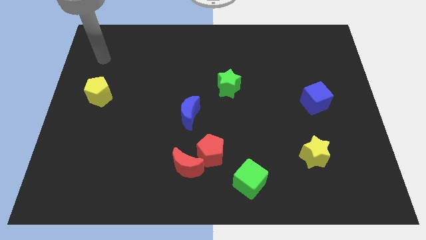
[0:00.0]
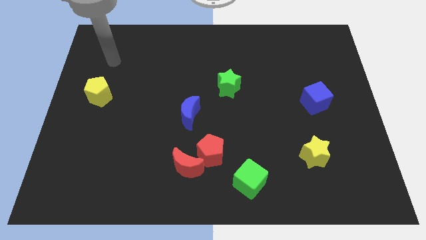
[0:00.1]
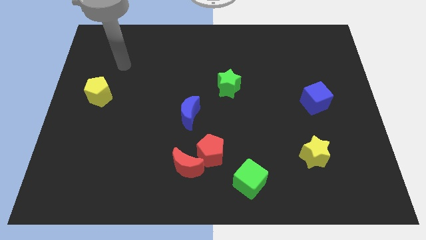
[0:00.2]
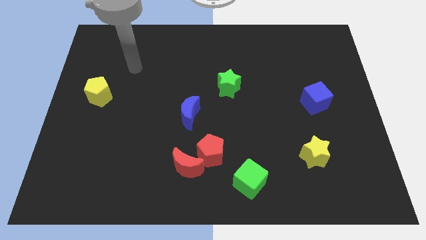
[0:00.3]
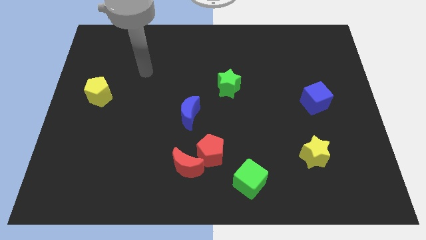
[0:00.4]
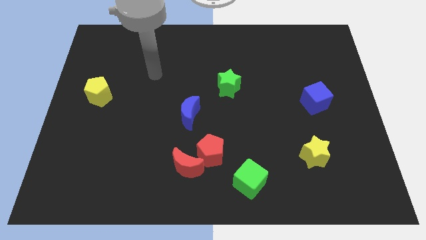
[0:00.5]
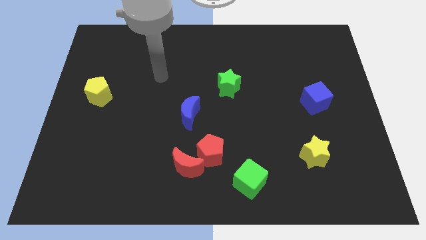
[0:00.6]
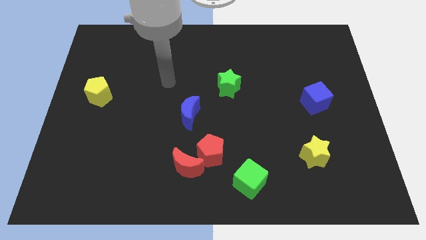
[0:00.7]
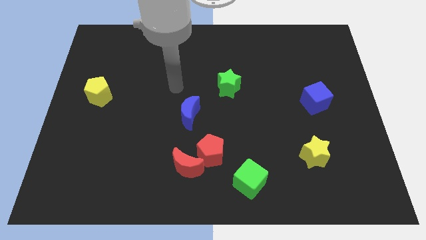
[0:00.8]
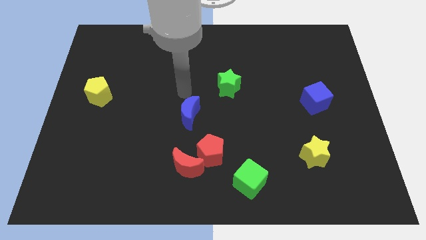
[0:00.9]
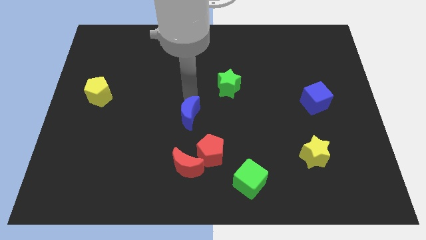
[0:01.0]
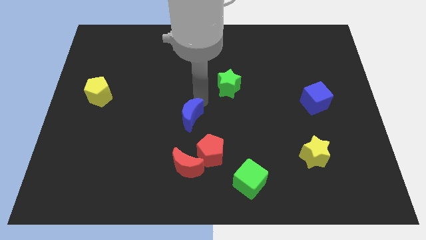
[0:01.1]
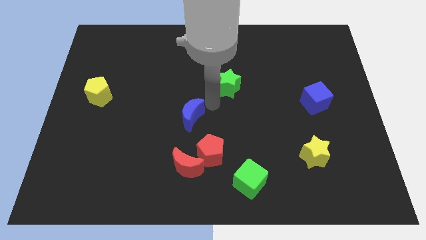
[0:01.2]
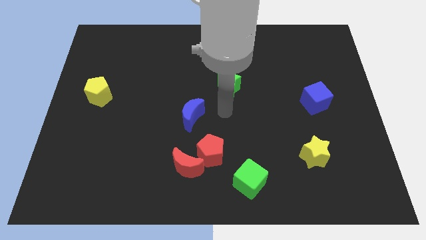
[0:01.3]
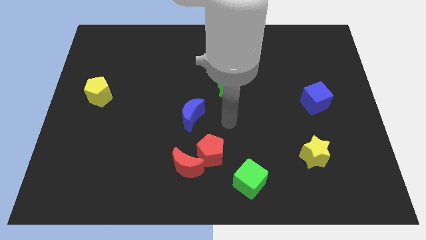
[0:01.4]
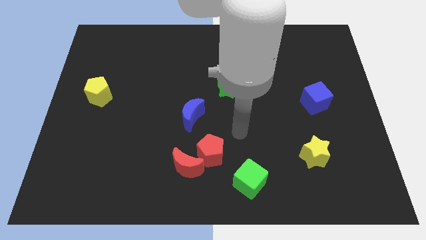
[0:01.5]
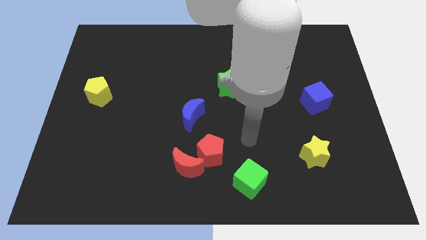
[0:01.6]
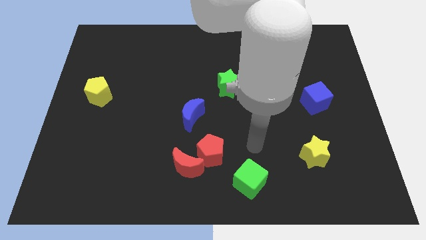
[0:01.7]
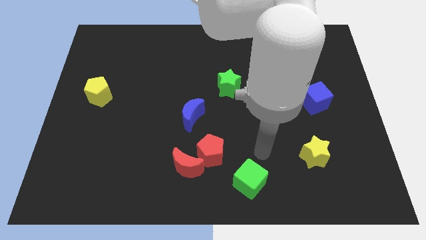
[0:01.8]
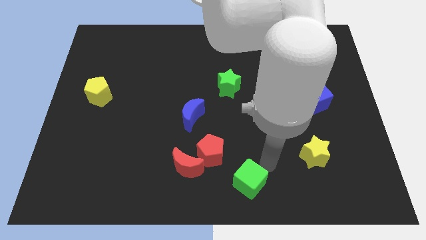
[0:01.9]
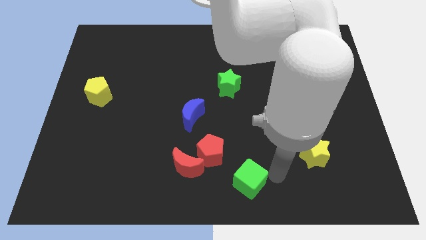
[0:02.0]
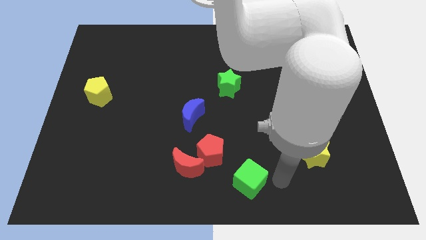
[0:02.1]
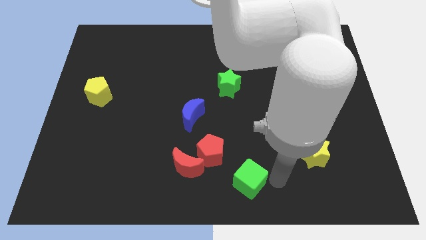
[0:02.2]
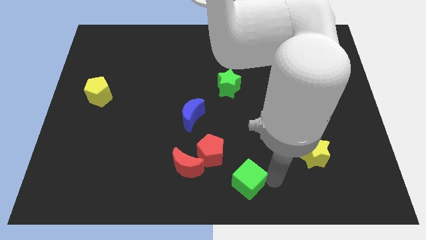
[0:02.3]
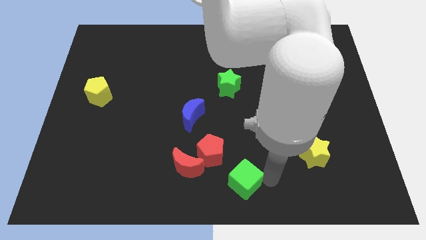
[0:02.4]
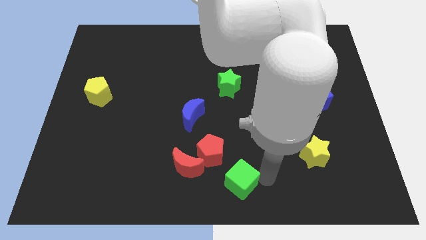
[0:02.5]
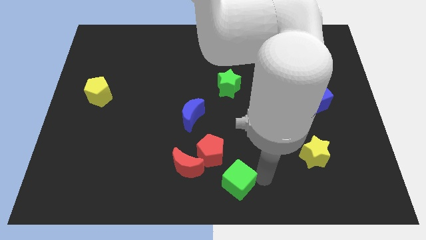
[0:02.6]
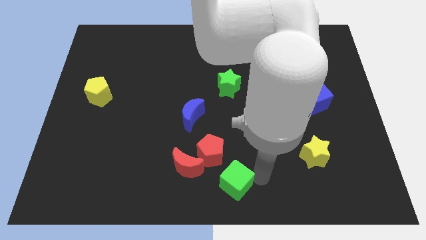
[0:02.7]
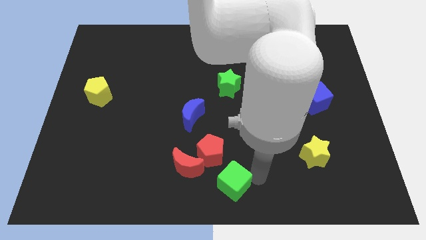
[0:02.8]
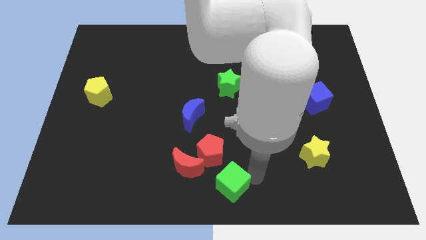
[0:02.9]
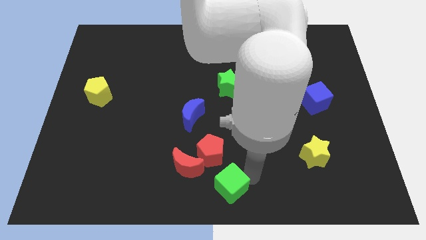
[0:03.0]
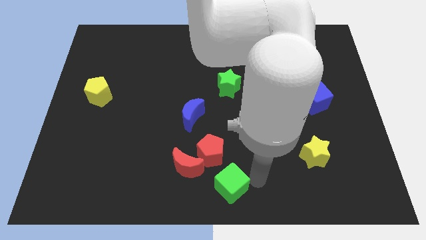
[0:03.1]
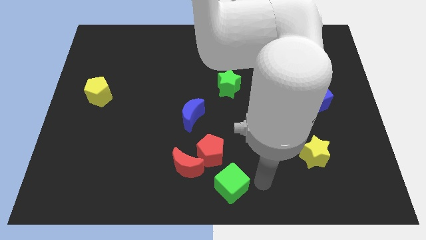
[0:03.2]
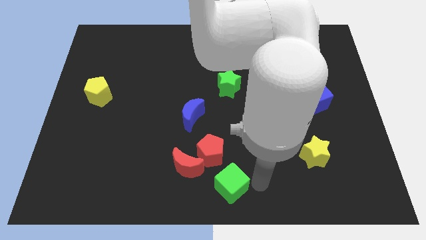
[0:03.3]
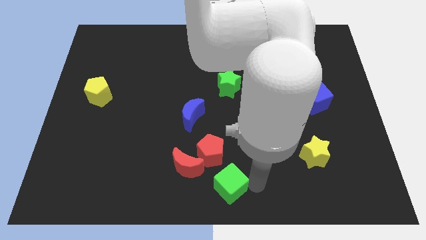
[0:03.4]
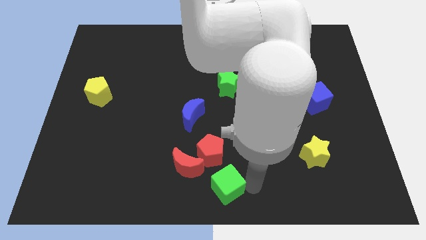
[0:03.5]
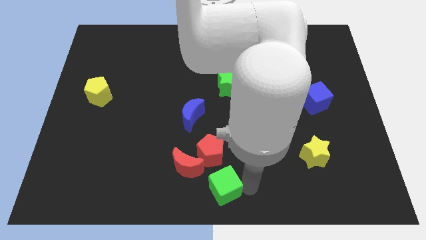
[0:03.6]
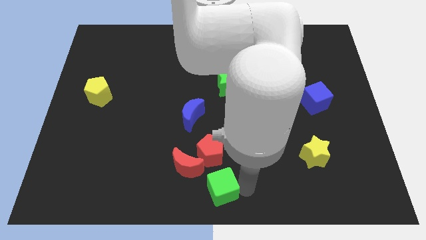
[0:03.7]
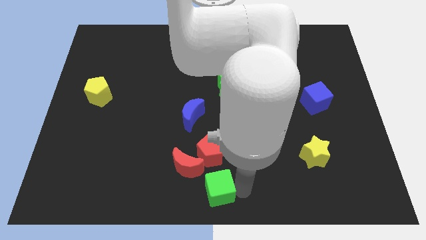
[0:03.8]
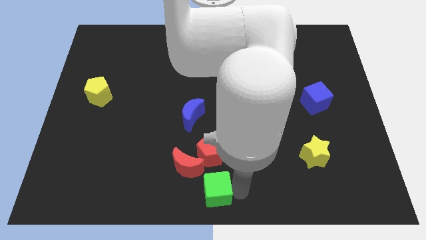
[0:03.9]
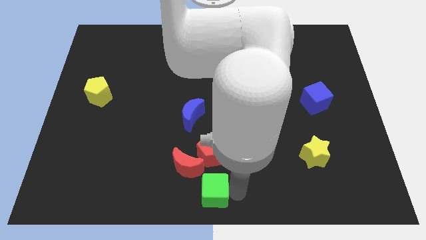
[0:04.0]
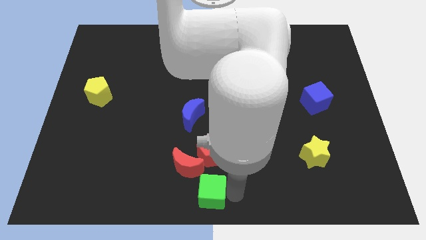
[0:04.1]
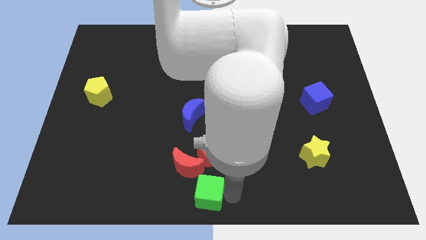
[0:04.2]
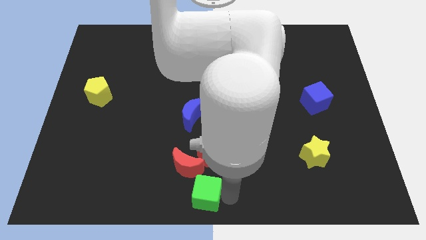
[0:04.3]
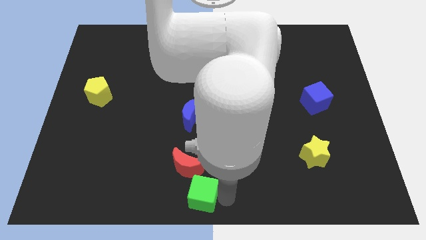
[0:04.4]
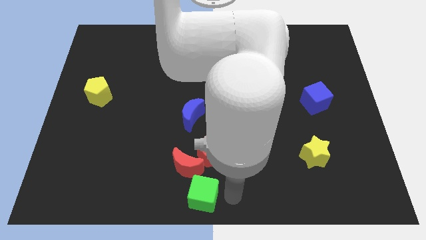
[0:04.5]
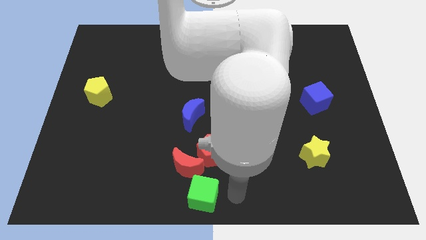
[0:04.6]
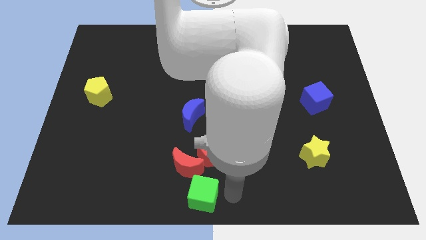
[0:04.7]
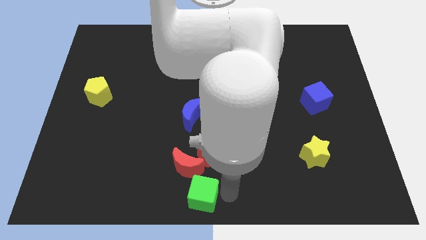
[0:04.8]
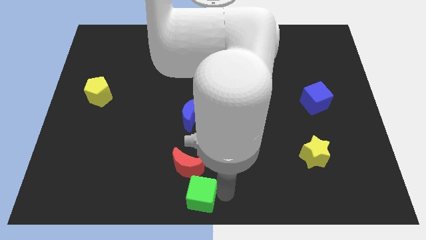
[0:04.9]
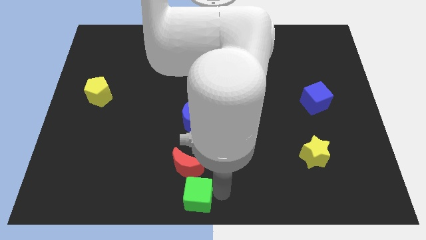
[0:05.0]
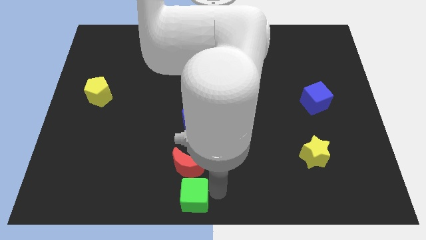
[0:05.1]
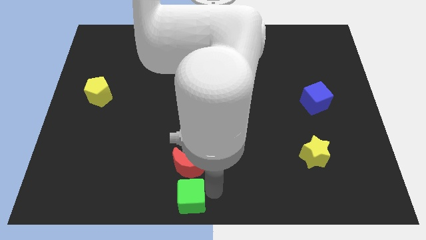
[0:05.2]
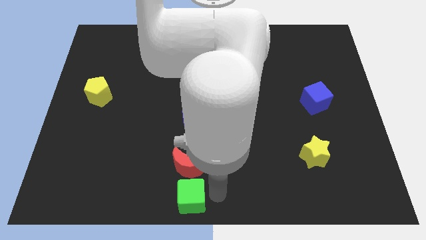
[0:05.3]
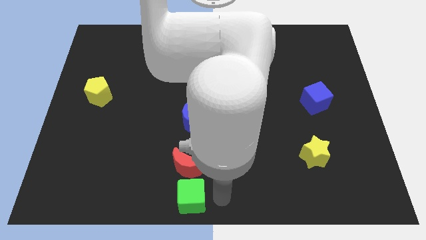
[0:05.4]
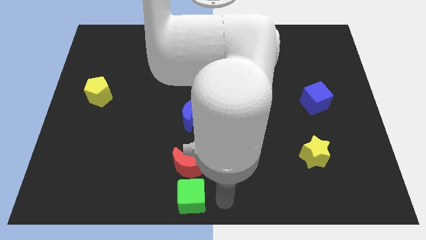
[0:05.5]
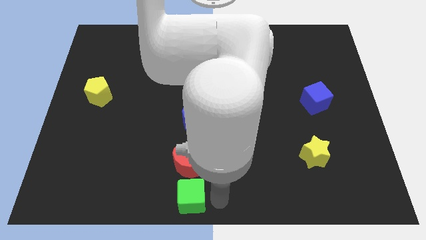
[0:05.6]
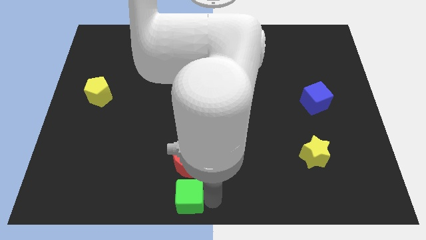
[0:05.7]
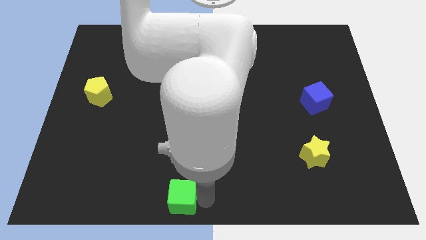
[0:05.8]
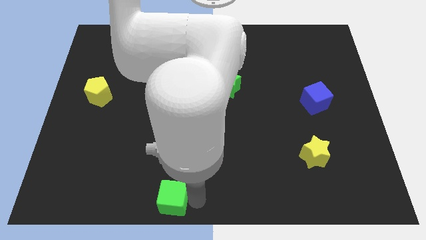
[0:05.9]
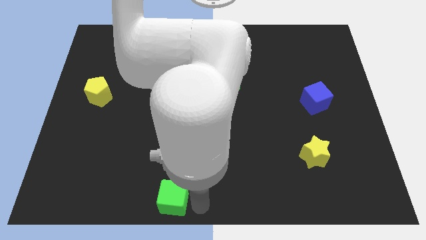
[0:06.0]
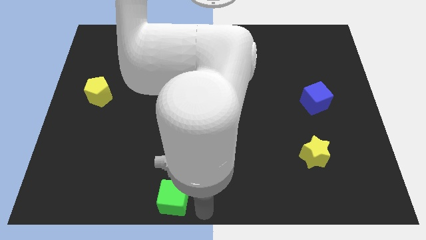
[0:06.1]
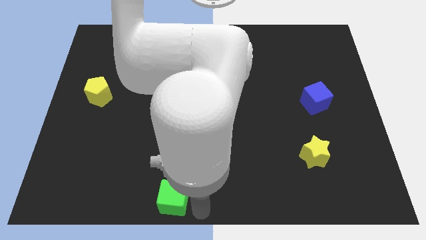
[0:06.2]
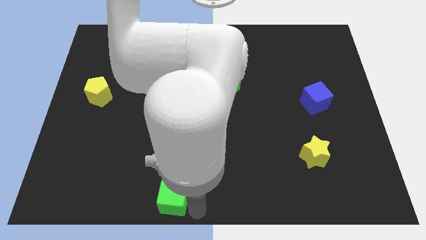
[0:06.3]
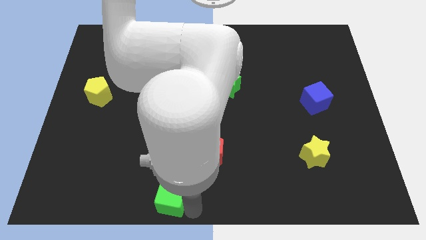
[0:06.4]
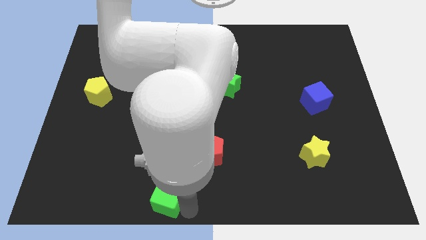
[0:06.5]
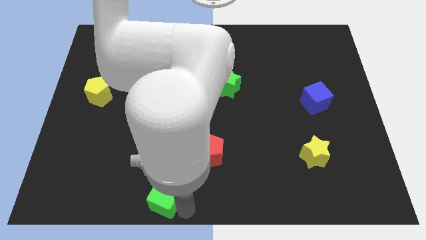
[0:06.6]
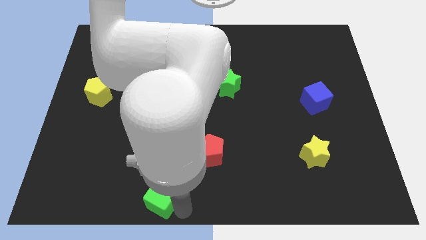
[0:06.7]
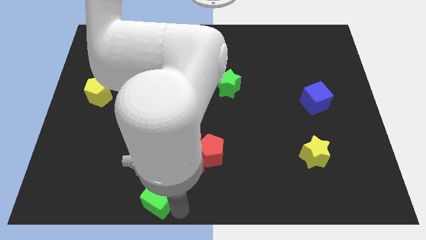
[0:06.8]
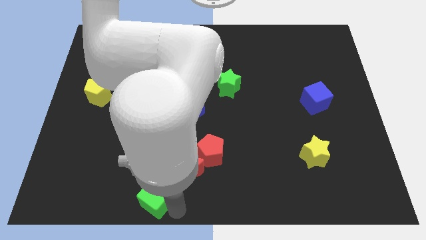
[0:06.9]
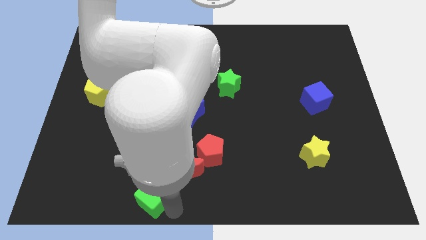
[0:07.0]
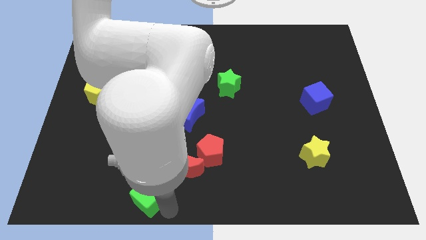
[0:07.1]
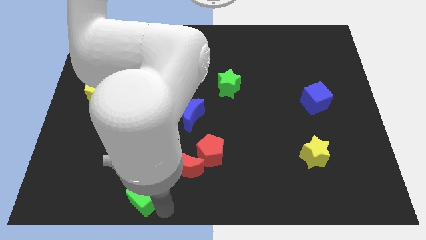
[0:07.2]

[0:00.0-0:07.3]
slide the green cube to the left

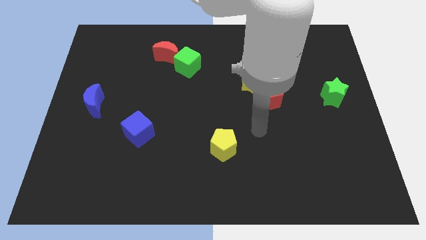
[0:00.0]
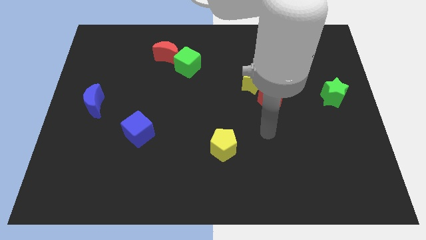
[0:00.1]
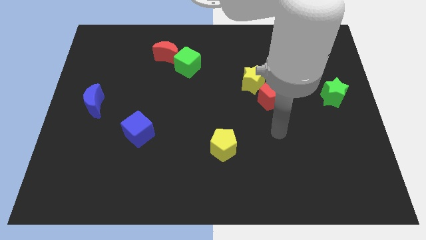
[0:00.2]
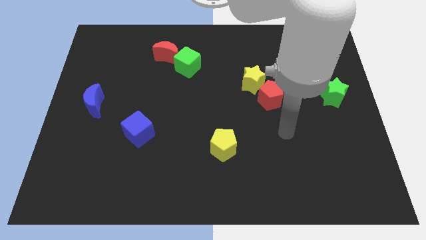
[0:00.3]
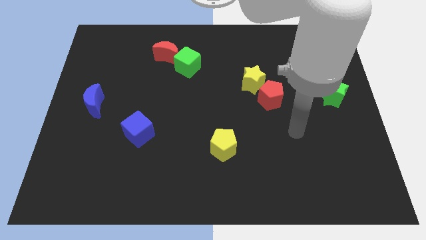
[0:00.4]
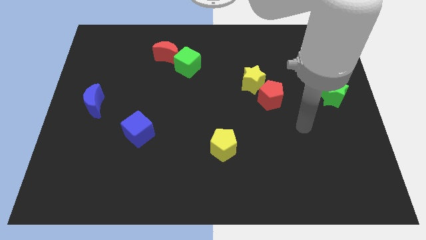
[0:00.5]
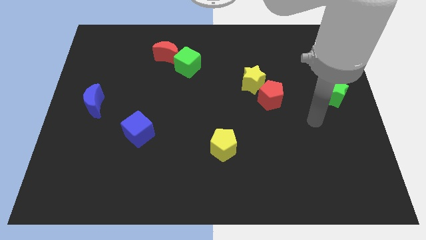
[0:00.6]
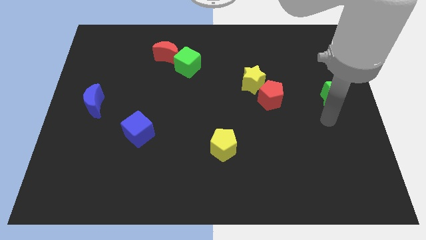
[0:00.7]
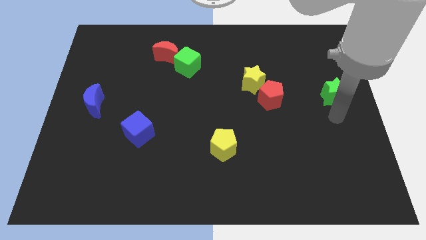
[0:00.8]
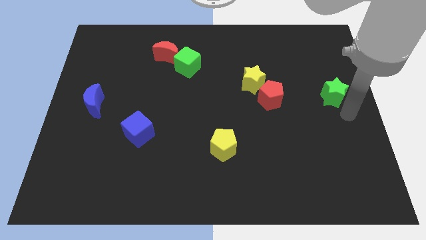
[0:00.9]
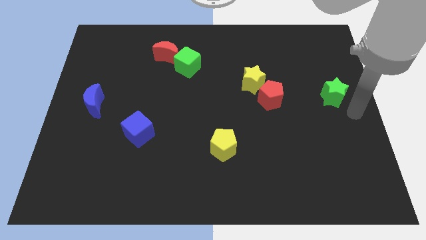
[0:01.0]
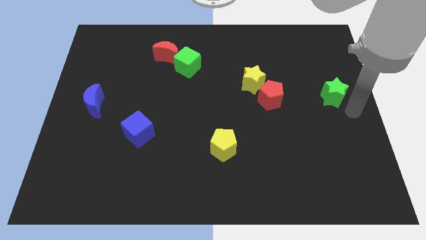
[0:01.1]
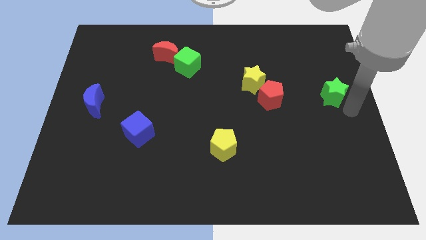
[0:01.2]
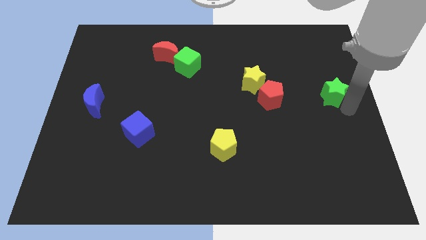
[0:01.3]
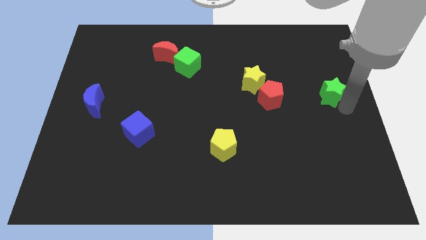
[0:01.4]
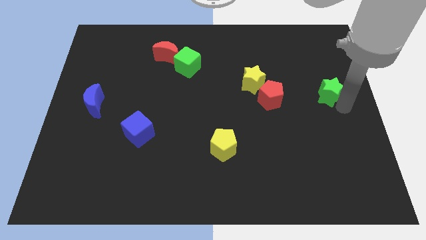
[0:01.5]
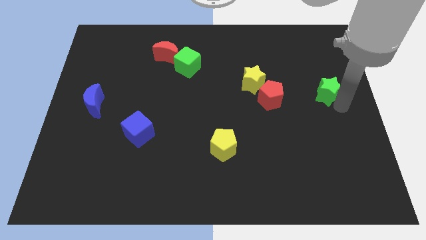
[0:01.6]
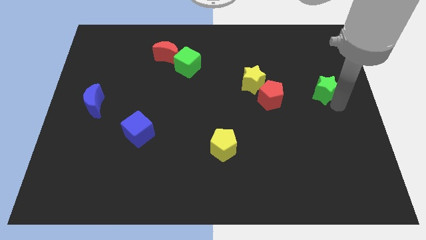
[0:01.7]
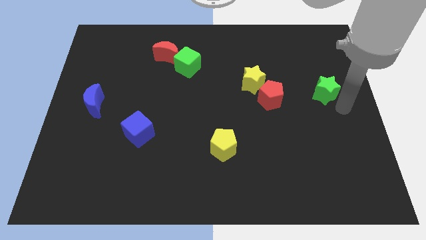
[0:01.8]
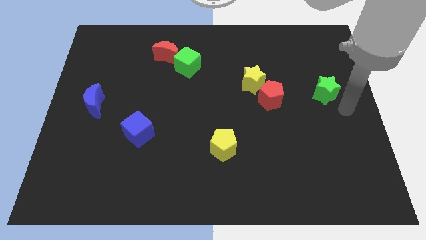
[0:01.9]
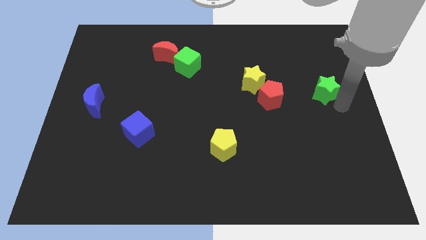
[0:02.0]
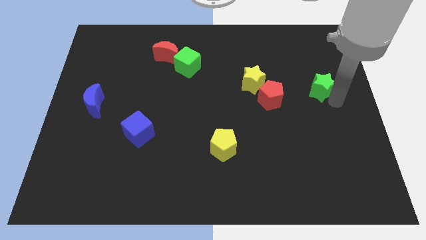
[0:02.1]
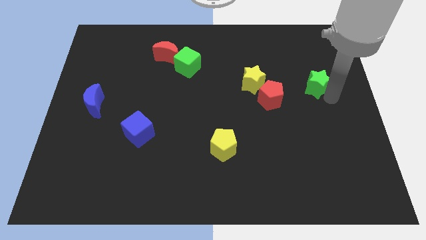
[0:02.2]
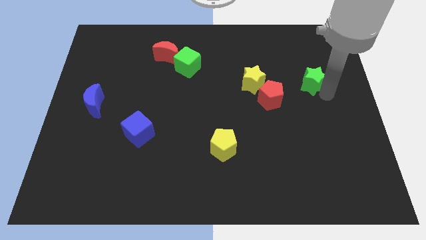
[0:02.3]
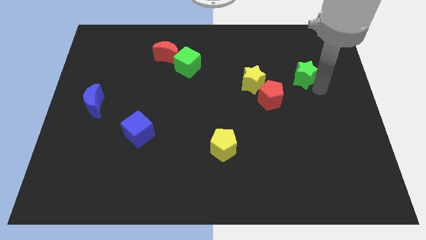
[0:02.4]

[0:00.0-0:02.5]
push the green star upwards and then to the left somewhat
